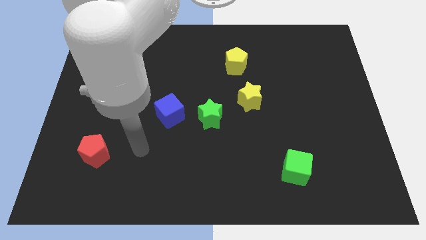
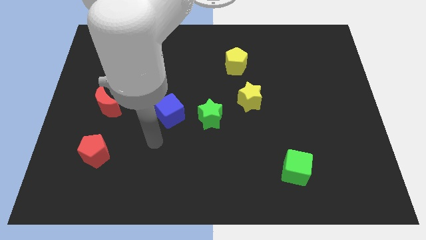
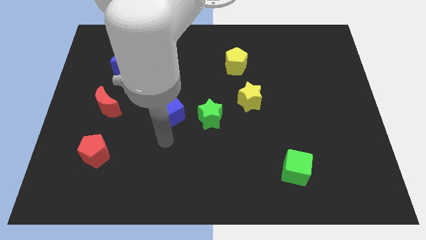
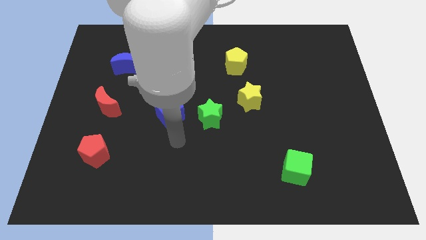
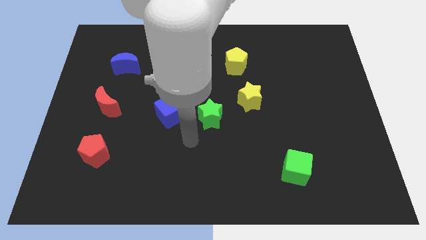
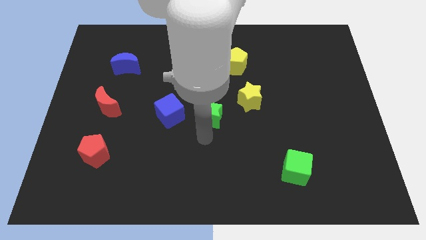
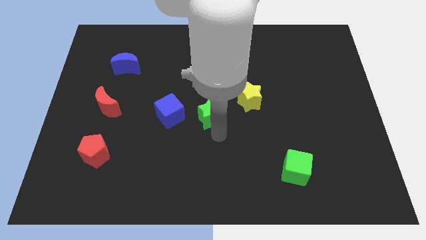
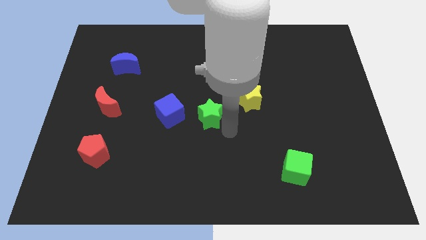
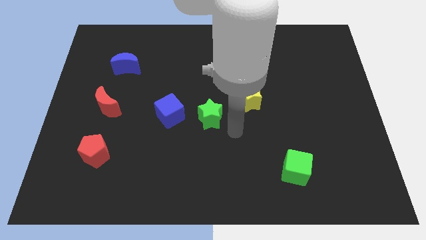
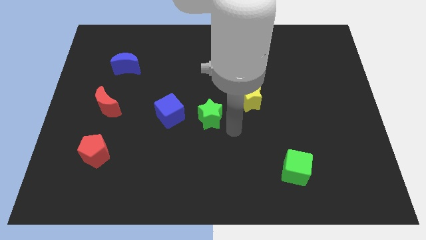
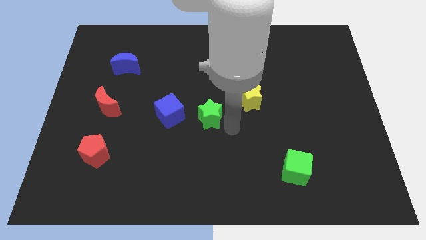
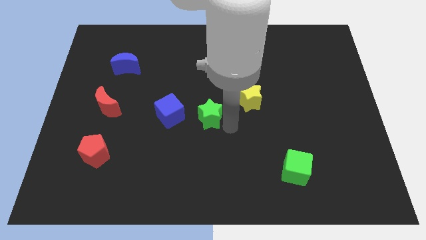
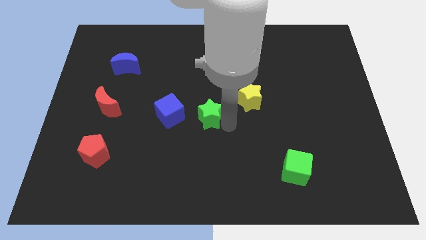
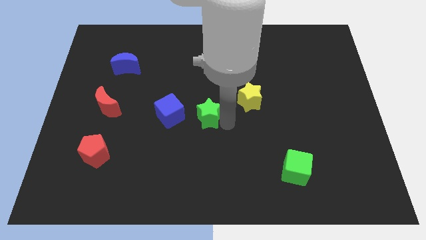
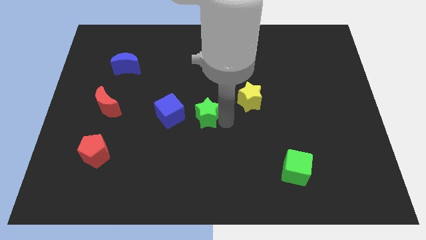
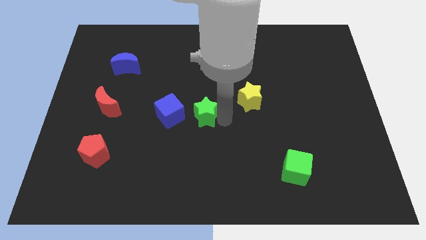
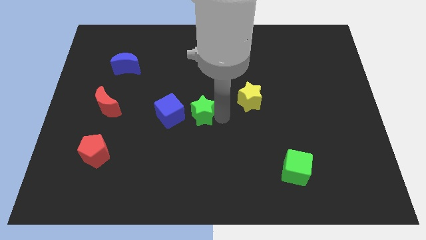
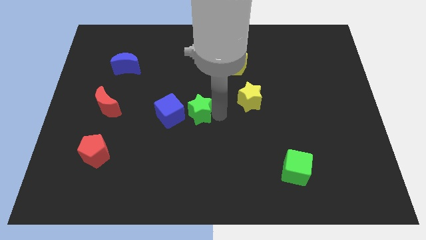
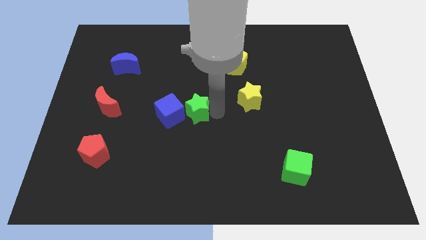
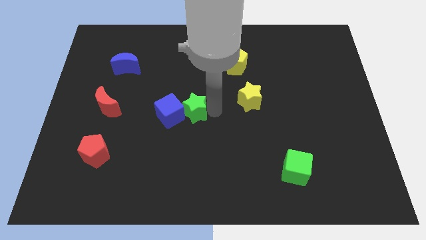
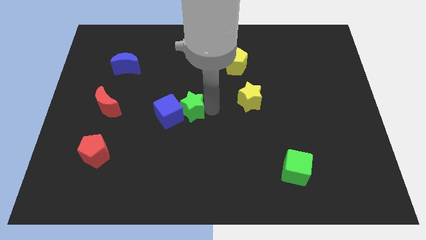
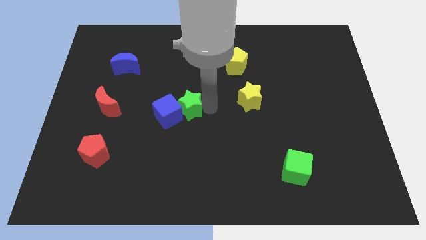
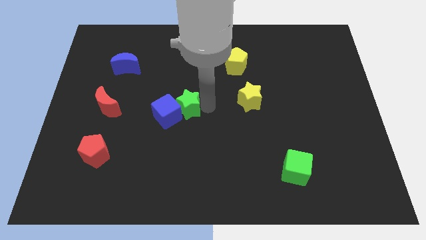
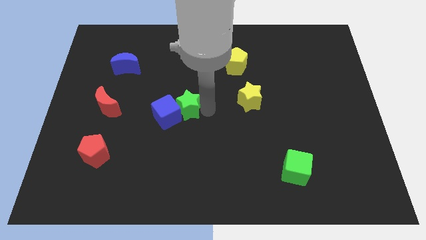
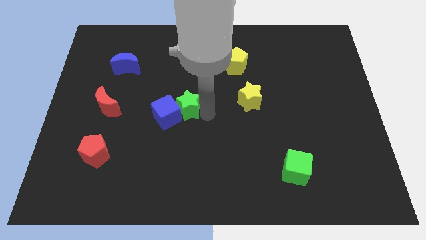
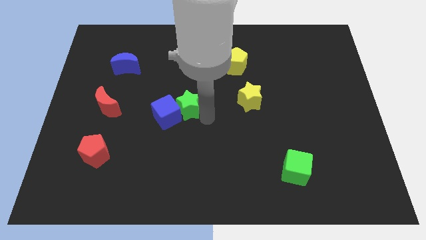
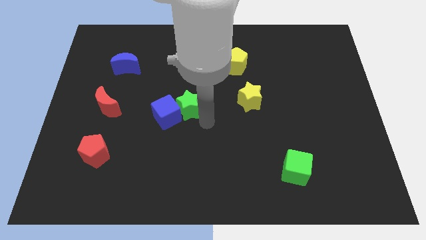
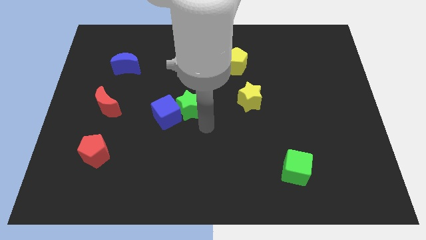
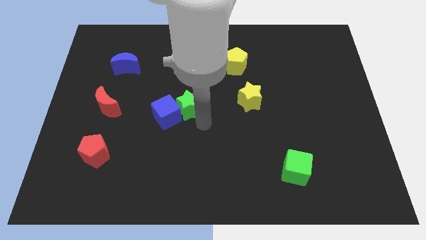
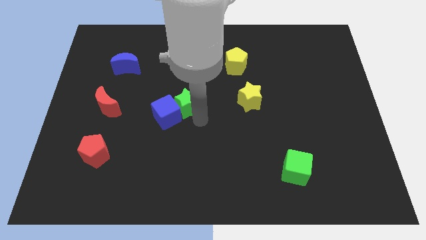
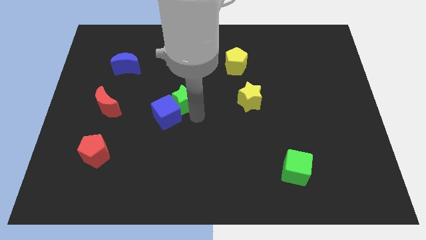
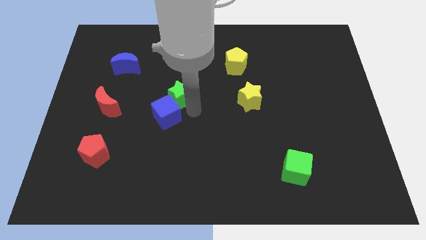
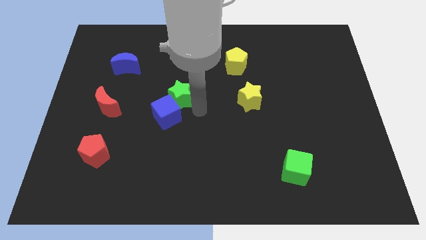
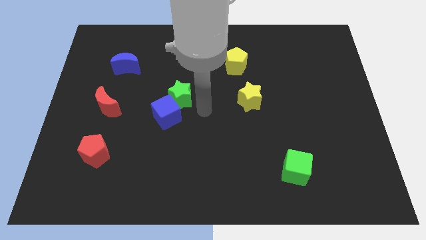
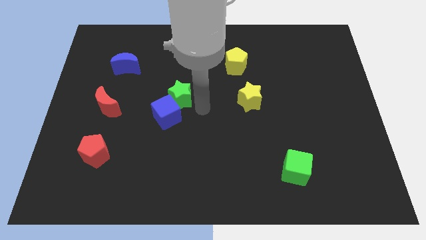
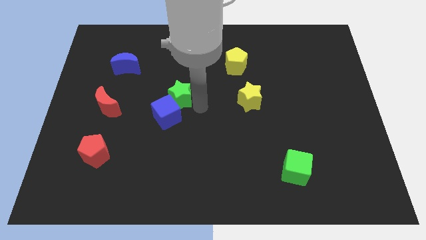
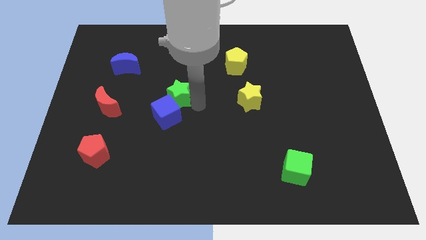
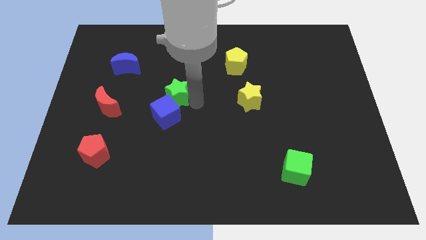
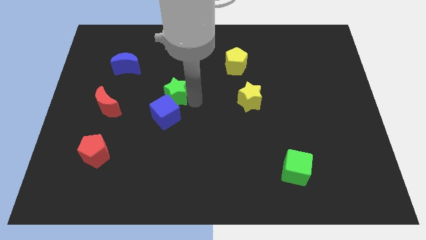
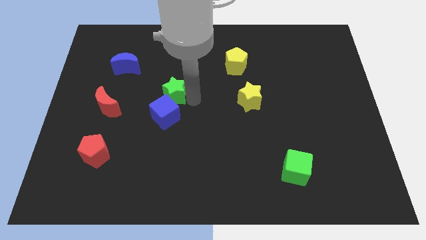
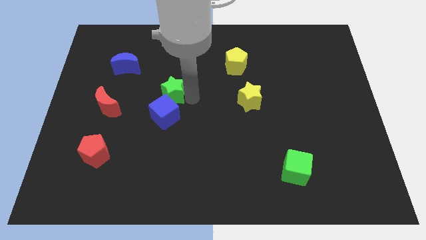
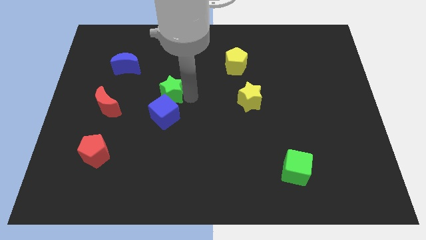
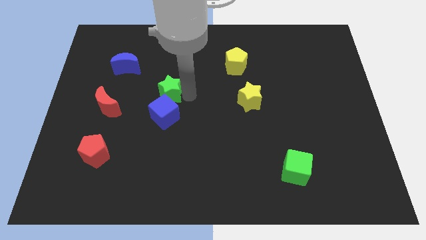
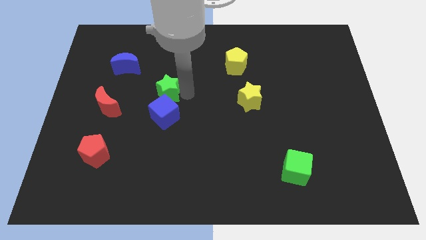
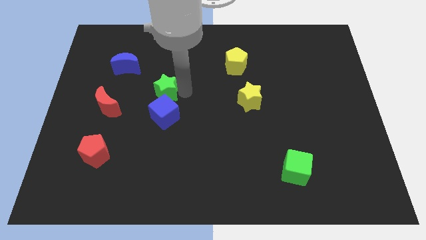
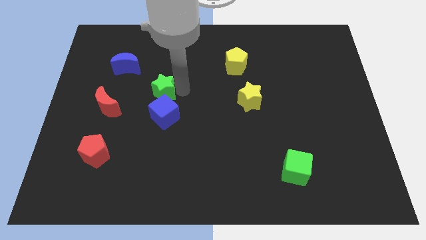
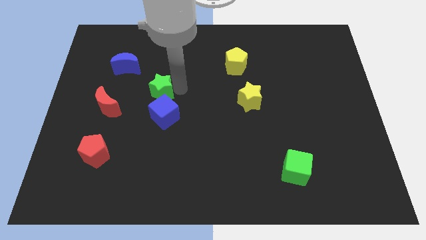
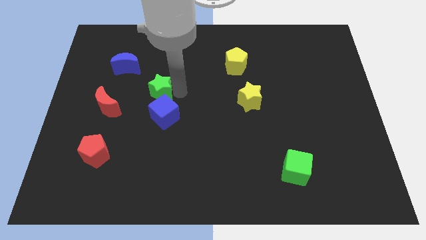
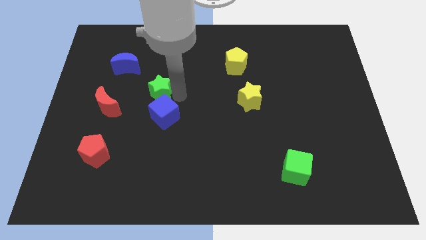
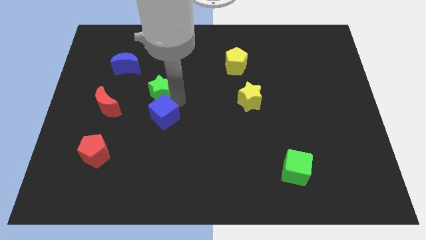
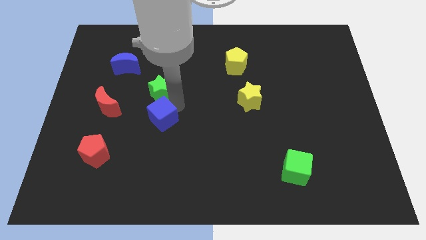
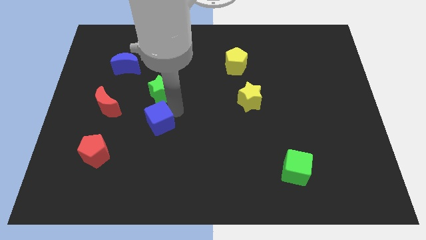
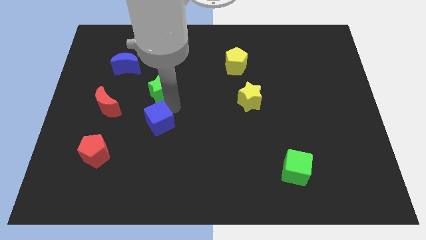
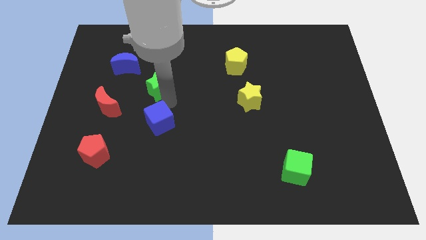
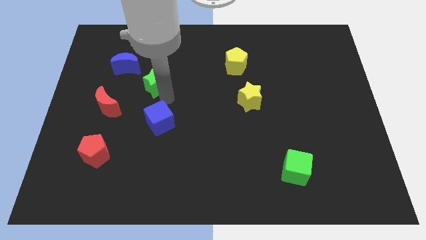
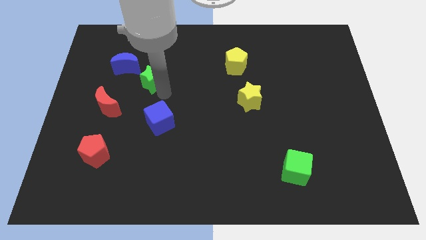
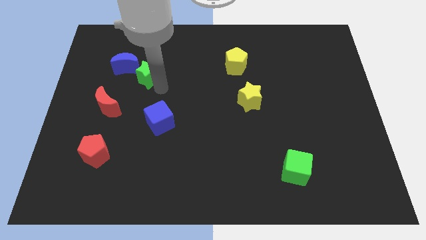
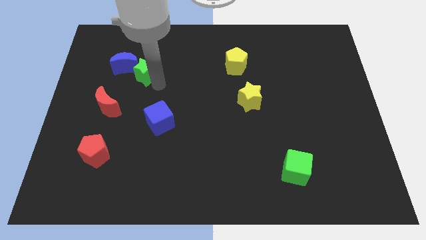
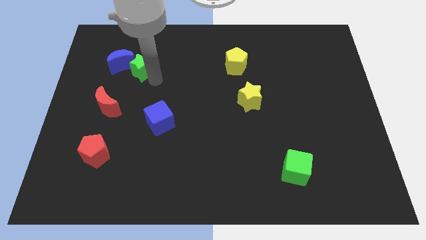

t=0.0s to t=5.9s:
move the green star close to the blue moon

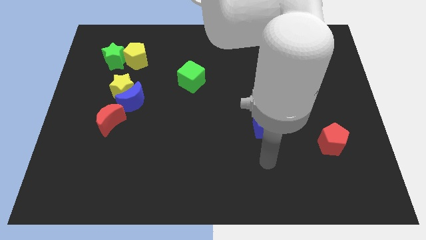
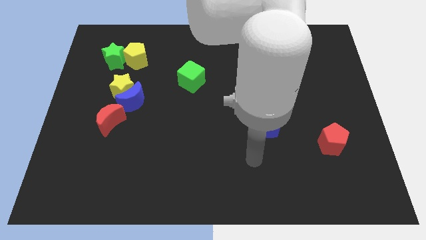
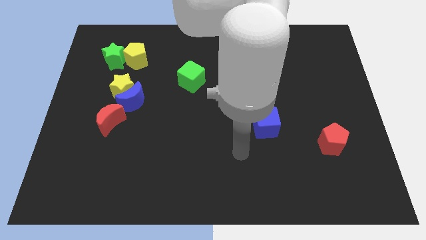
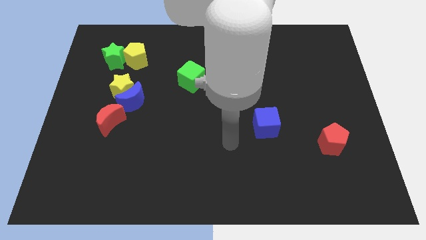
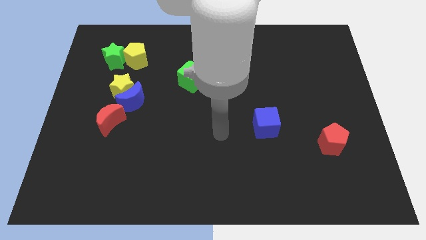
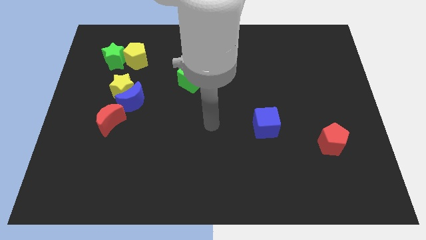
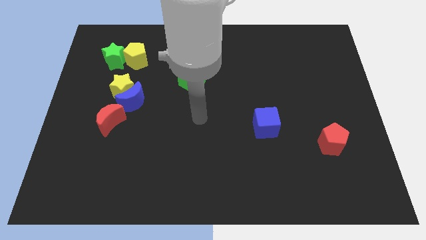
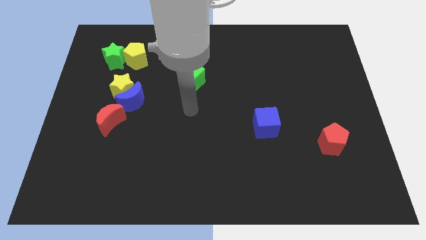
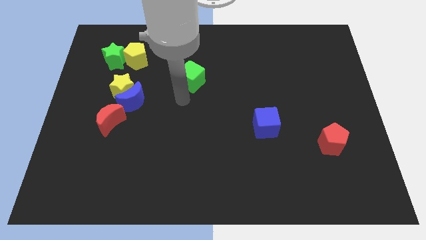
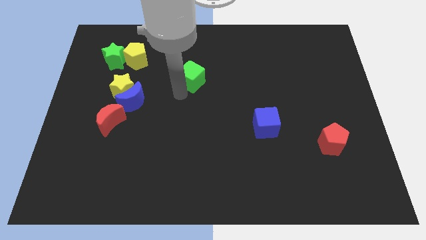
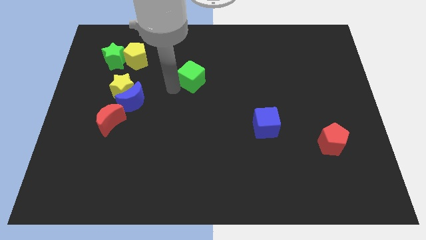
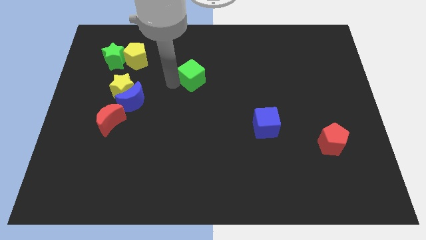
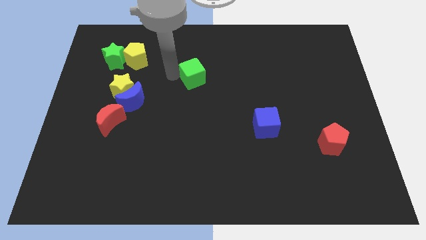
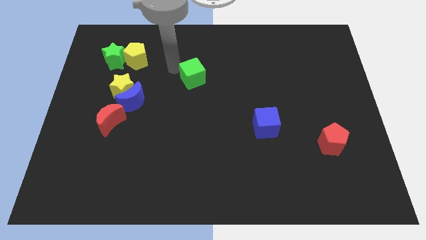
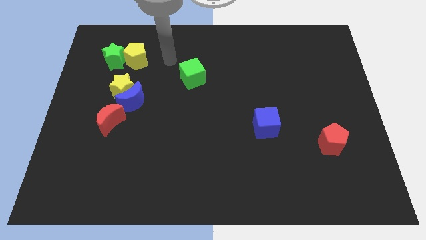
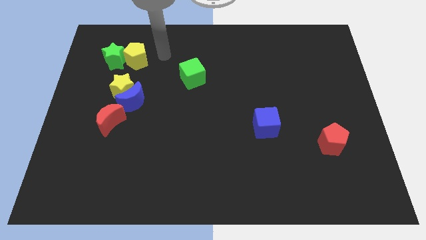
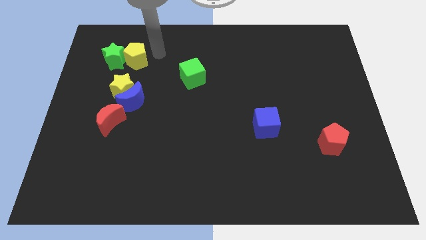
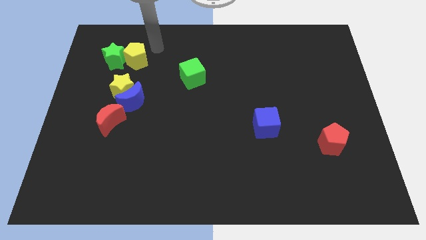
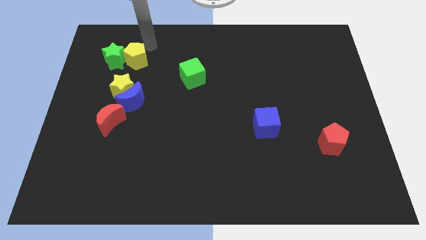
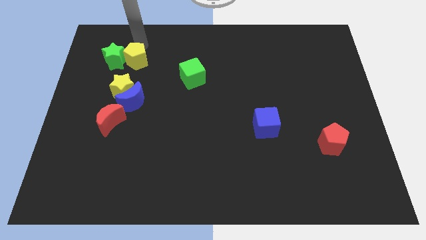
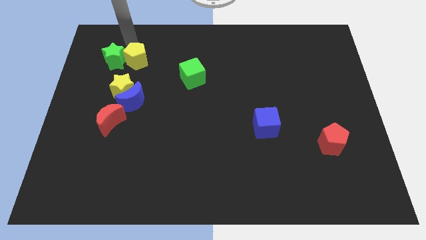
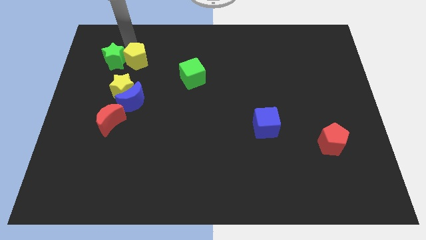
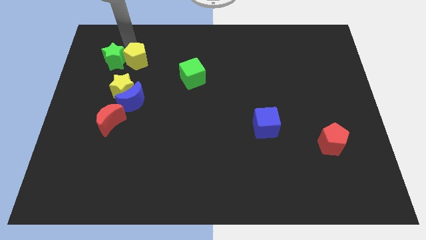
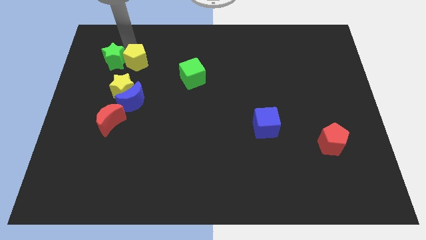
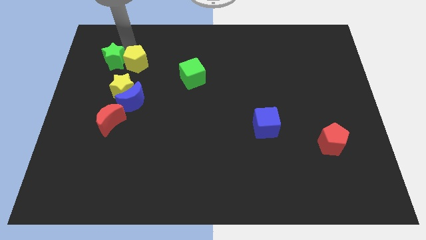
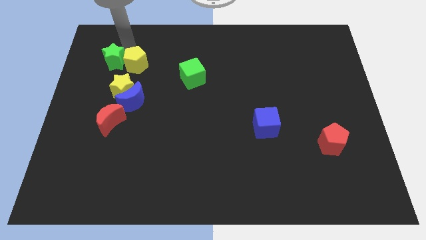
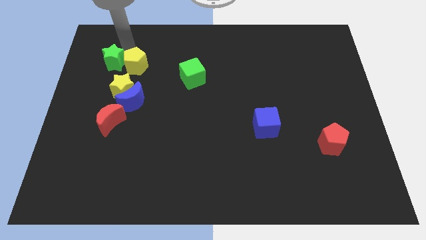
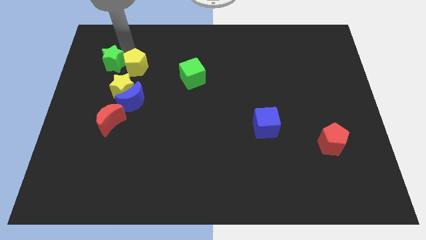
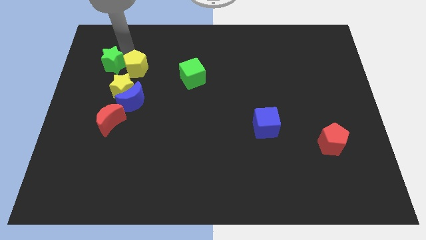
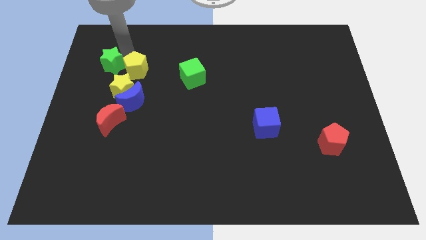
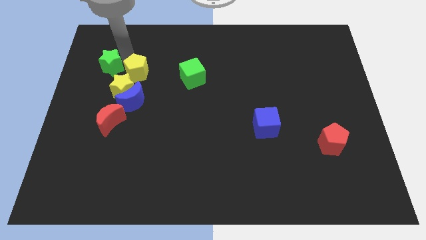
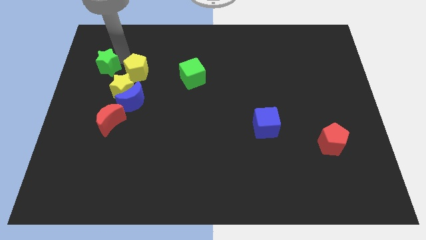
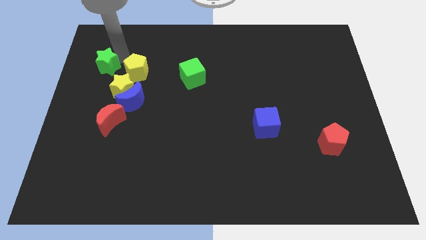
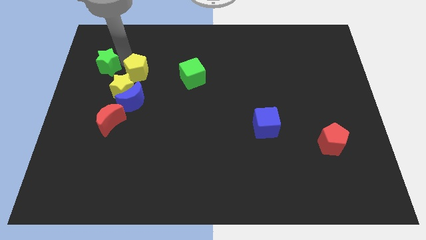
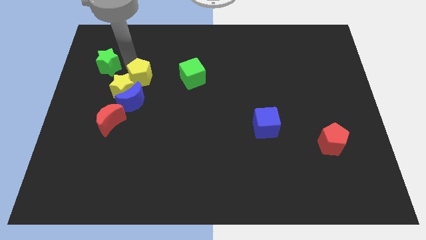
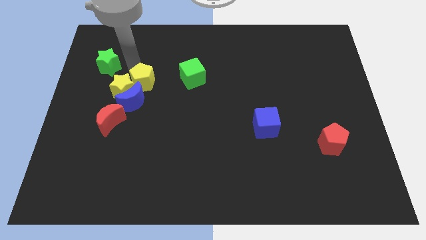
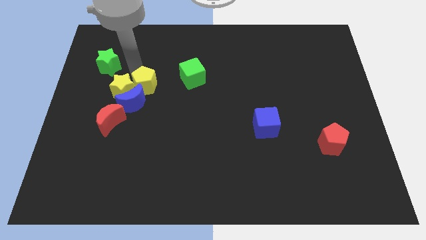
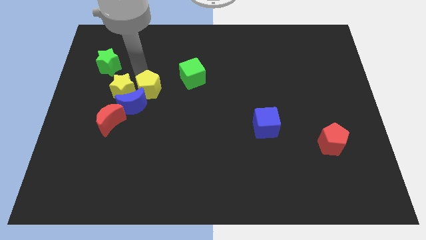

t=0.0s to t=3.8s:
move the yellow pentagon close to the blue moon
